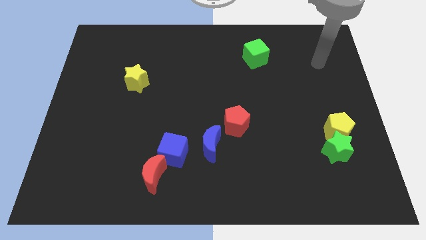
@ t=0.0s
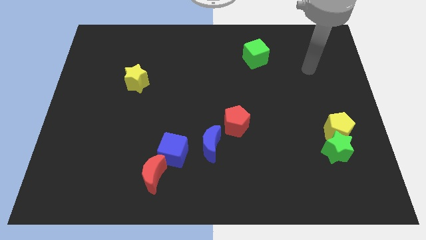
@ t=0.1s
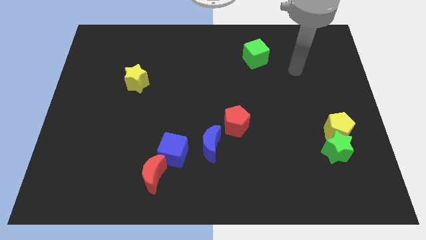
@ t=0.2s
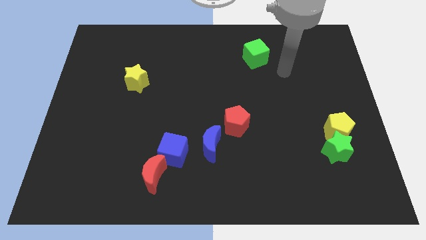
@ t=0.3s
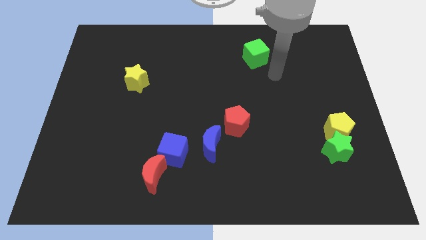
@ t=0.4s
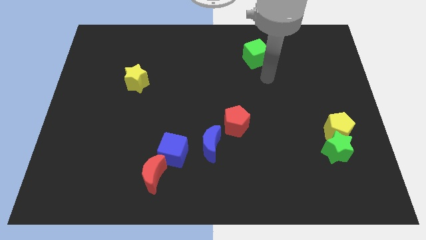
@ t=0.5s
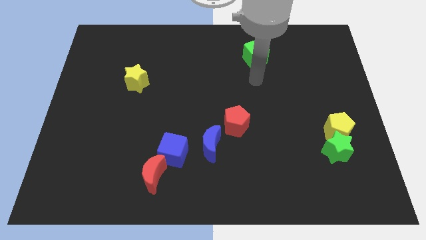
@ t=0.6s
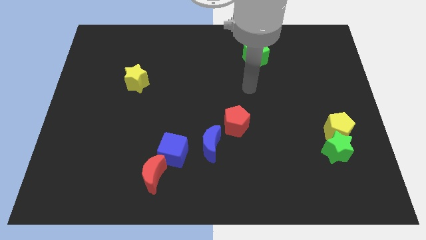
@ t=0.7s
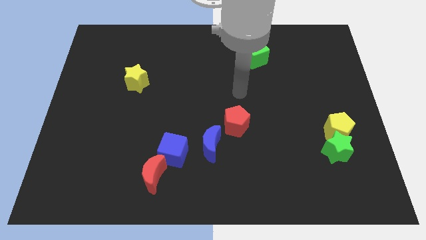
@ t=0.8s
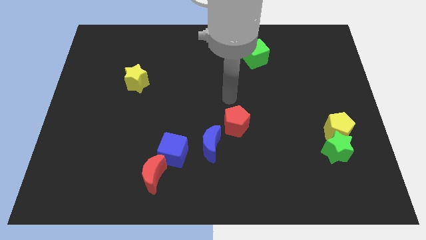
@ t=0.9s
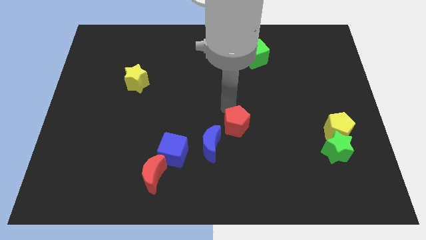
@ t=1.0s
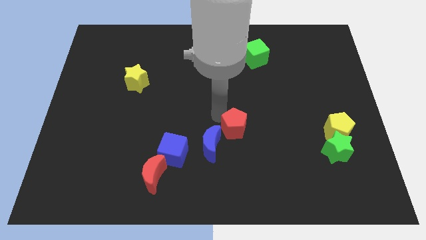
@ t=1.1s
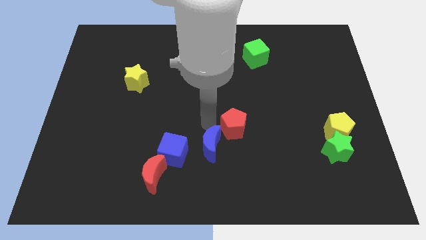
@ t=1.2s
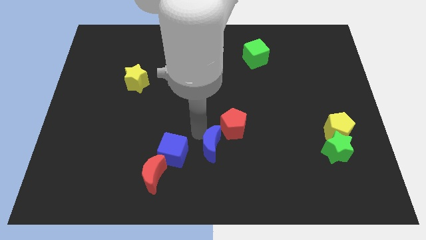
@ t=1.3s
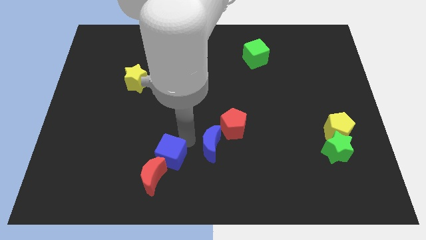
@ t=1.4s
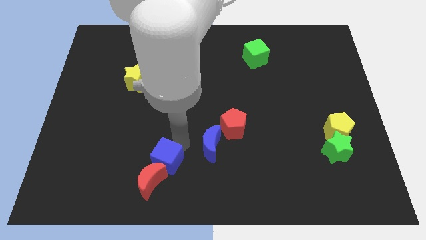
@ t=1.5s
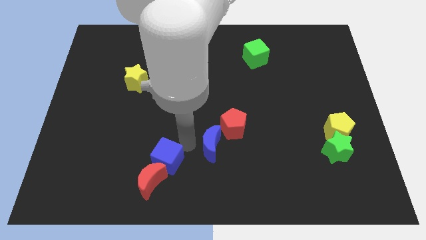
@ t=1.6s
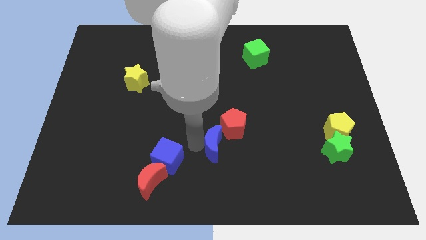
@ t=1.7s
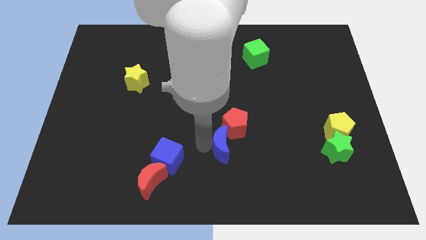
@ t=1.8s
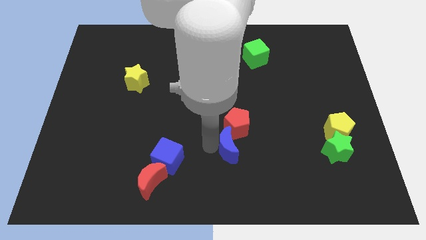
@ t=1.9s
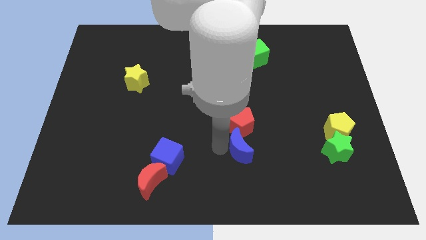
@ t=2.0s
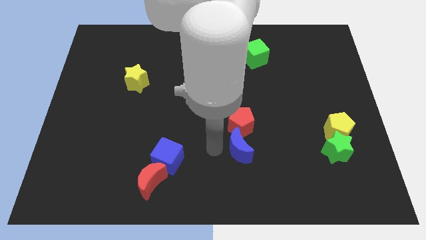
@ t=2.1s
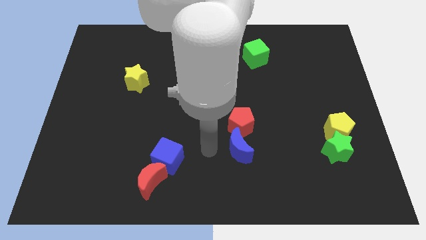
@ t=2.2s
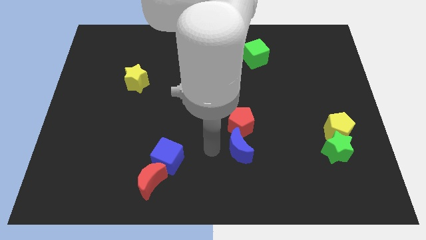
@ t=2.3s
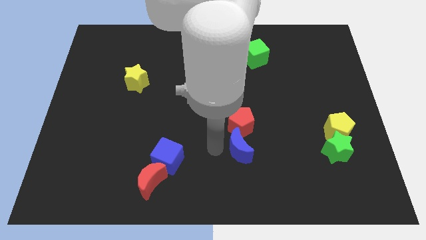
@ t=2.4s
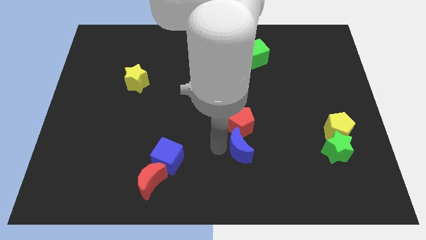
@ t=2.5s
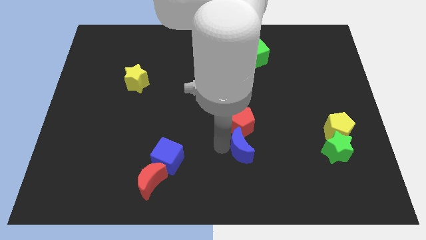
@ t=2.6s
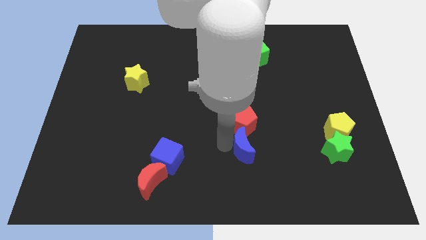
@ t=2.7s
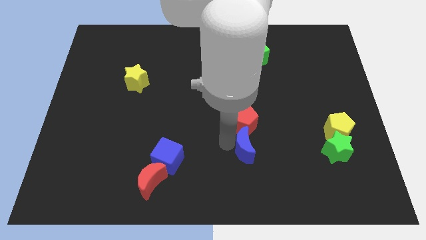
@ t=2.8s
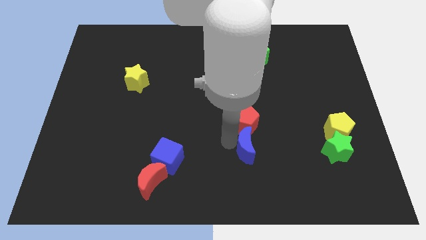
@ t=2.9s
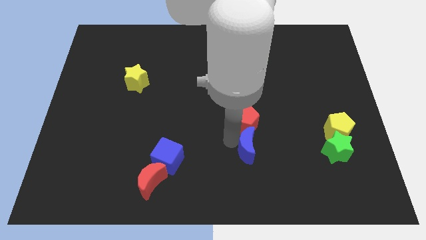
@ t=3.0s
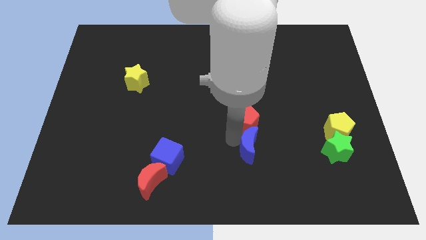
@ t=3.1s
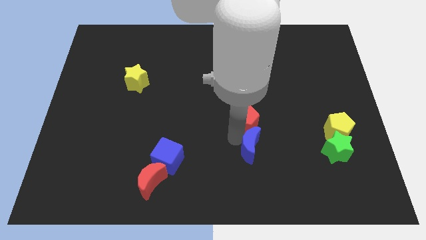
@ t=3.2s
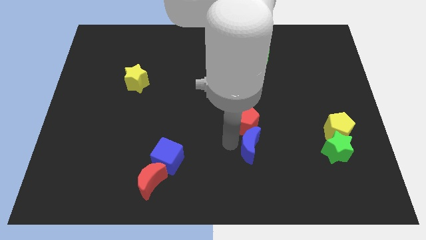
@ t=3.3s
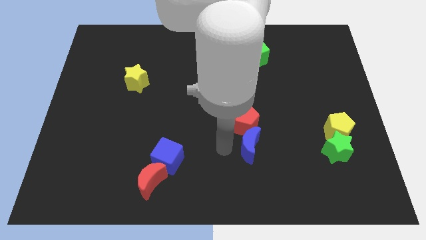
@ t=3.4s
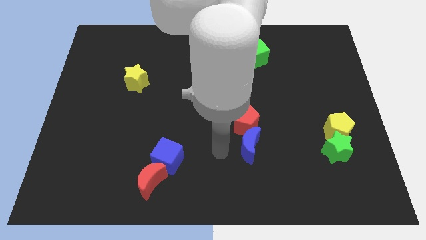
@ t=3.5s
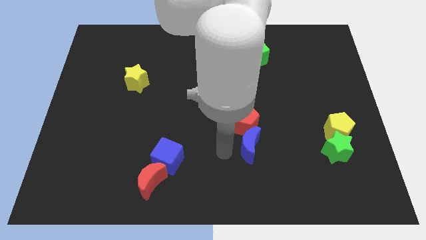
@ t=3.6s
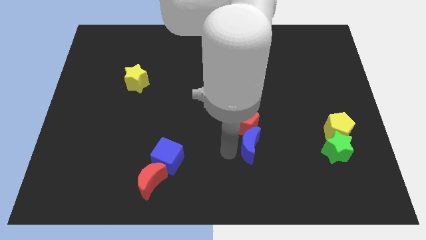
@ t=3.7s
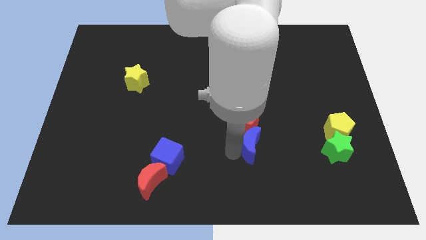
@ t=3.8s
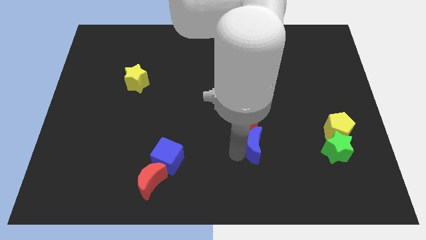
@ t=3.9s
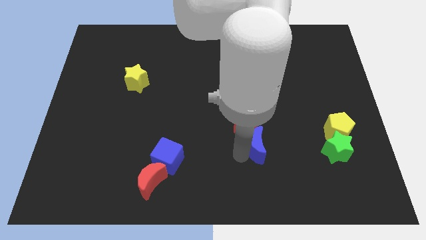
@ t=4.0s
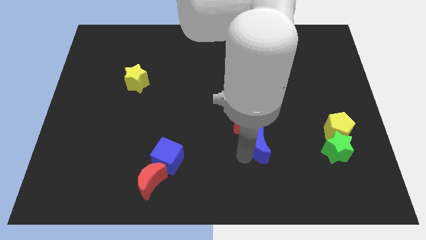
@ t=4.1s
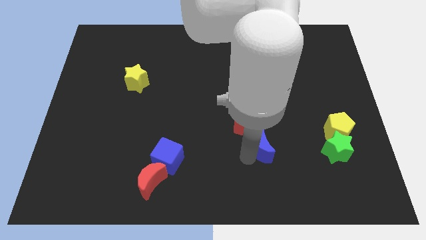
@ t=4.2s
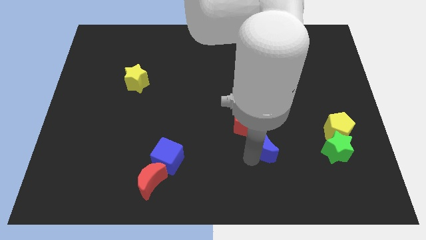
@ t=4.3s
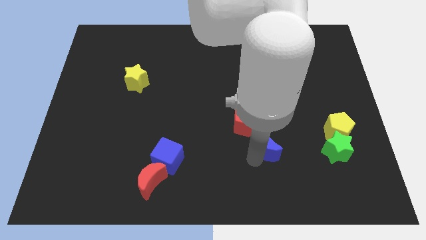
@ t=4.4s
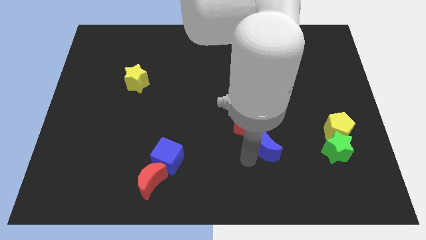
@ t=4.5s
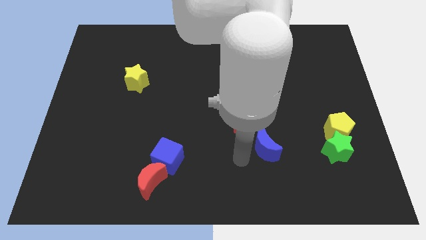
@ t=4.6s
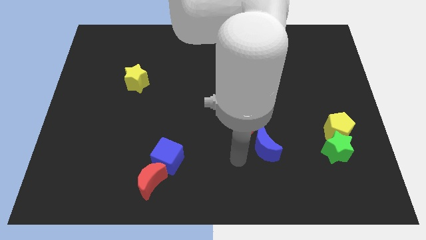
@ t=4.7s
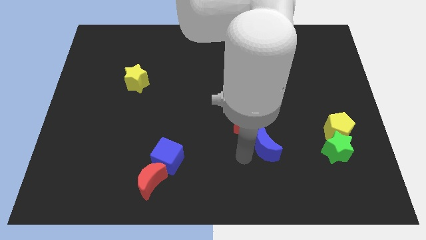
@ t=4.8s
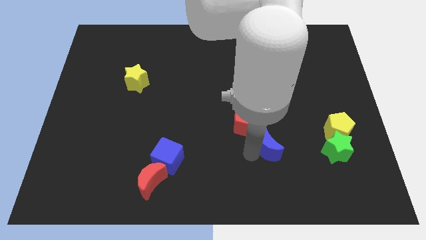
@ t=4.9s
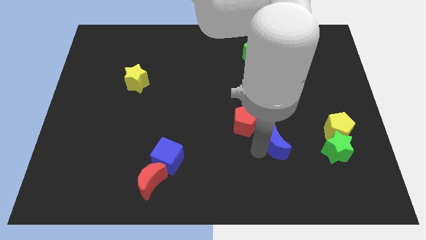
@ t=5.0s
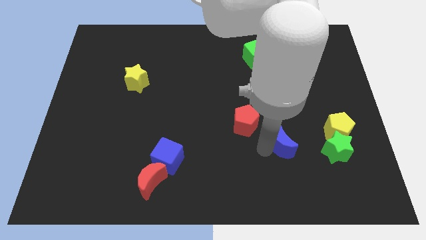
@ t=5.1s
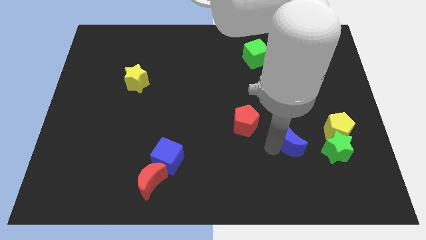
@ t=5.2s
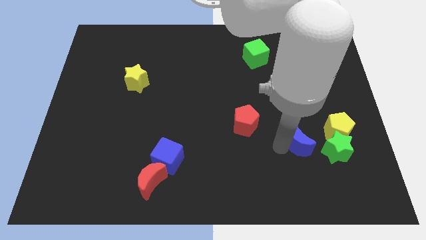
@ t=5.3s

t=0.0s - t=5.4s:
push the blue moon to the top left of the green star

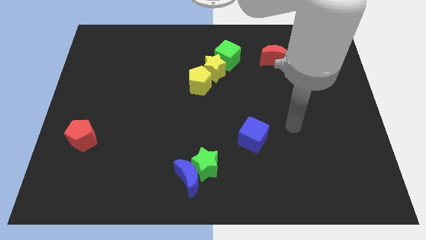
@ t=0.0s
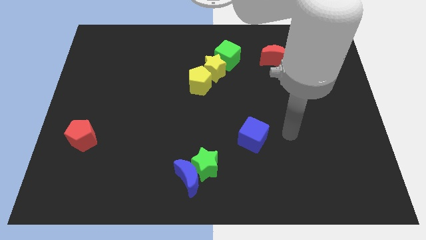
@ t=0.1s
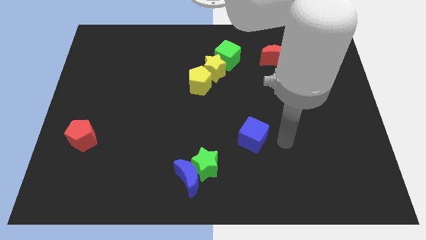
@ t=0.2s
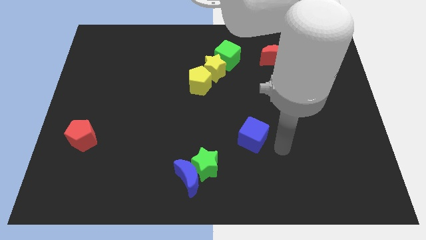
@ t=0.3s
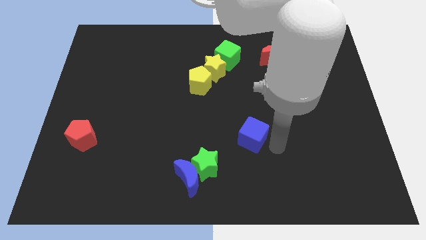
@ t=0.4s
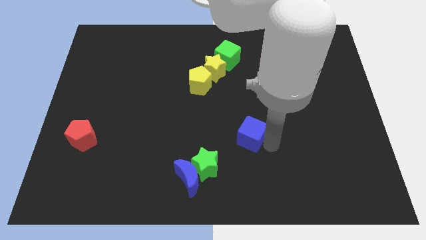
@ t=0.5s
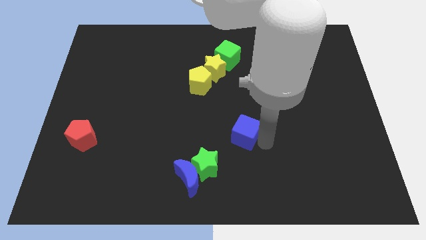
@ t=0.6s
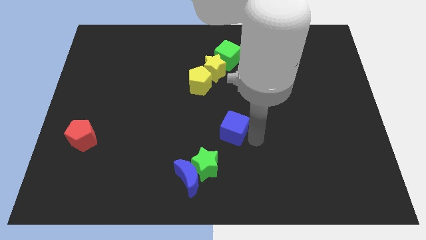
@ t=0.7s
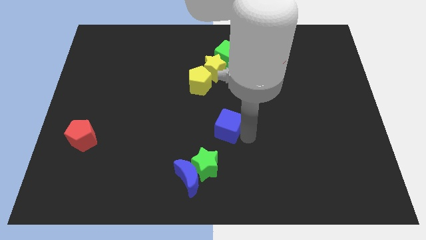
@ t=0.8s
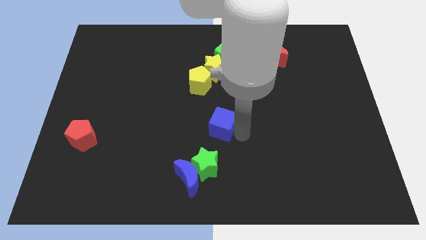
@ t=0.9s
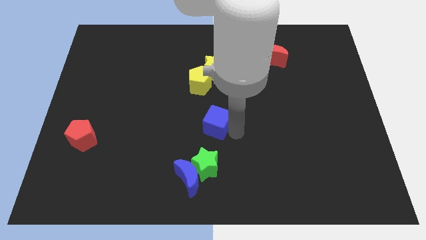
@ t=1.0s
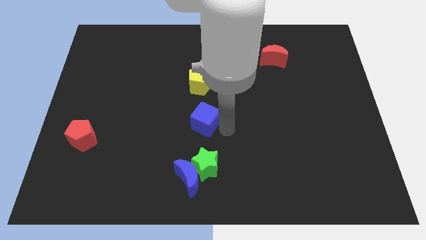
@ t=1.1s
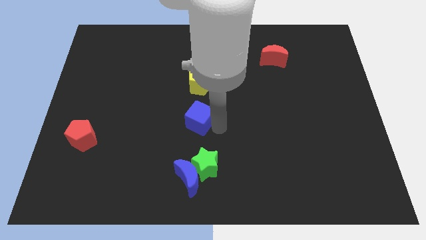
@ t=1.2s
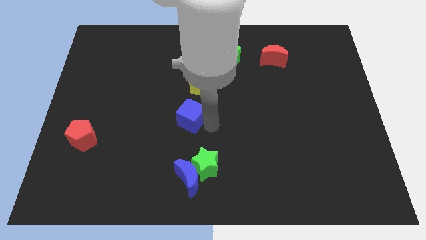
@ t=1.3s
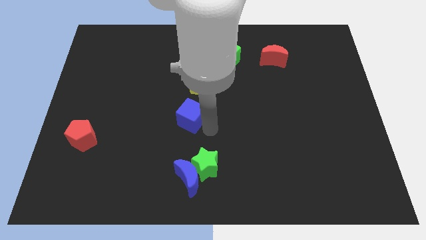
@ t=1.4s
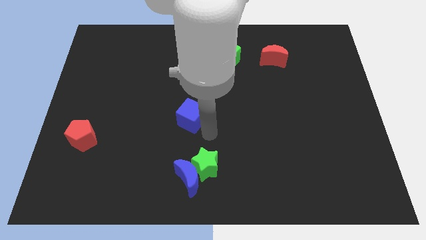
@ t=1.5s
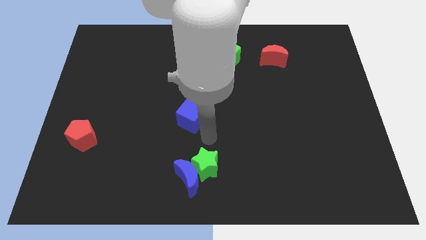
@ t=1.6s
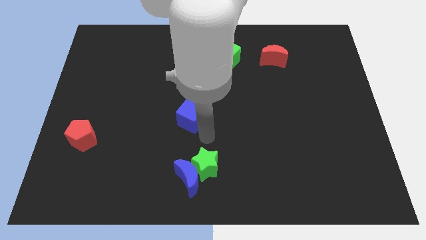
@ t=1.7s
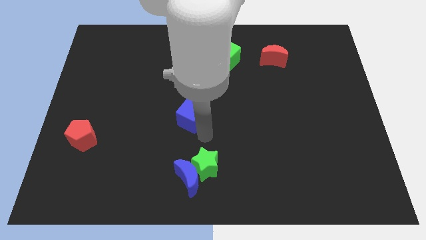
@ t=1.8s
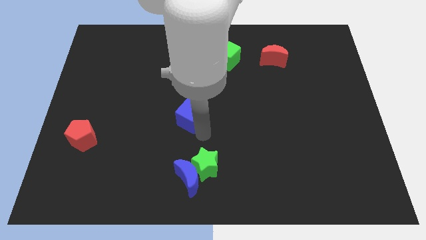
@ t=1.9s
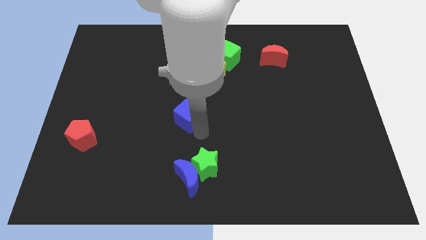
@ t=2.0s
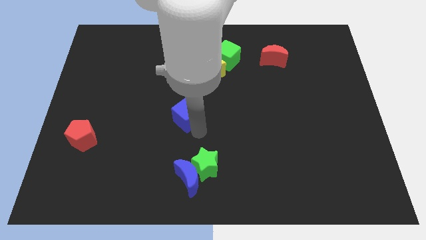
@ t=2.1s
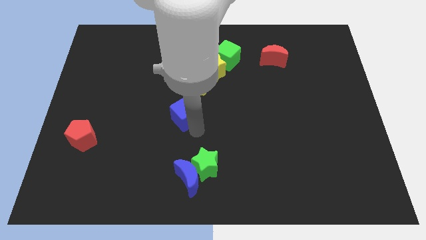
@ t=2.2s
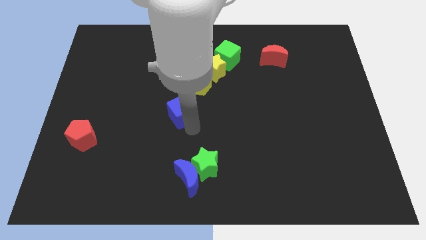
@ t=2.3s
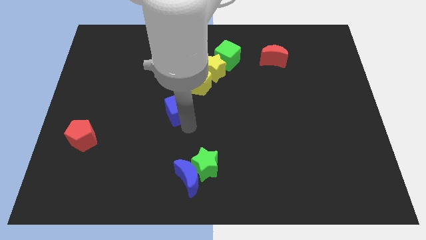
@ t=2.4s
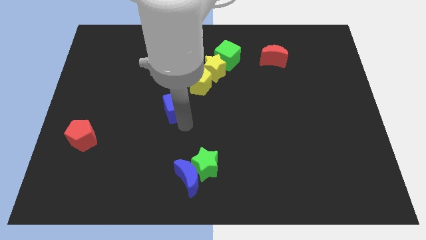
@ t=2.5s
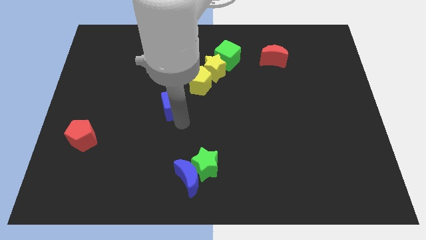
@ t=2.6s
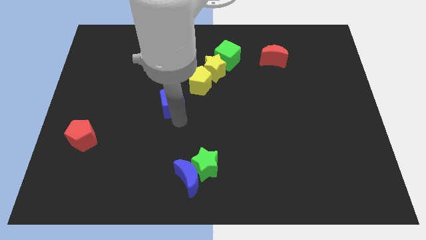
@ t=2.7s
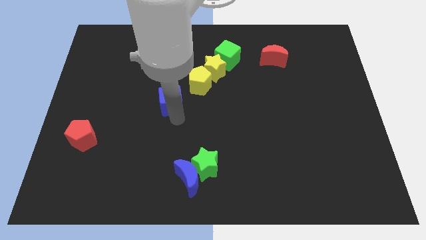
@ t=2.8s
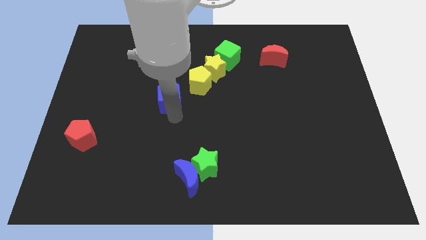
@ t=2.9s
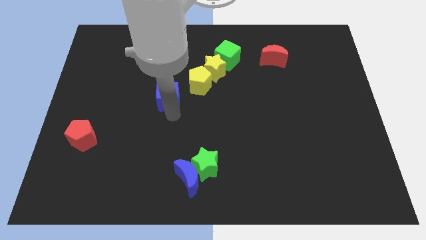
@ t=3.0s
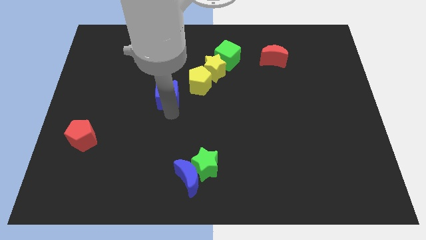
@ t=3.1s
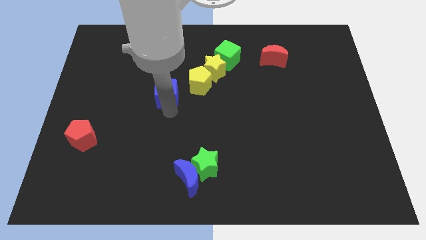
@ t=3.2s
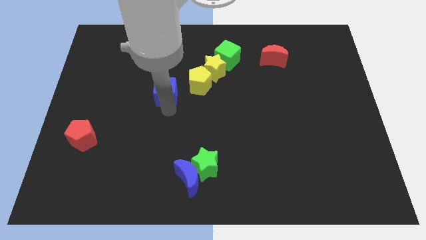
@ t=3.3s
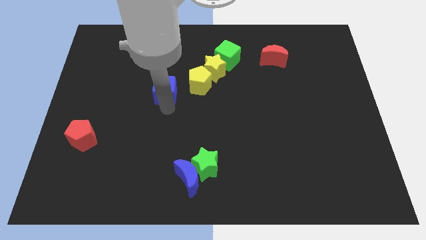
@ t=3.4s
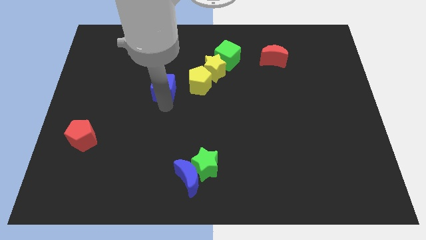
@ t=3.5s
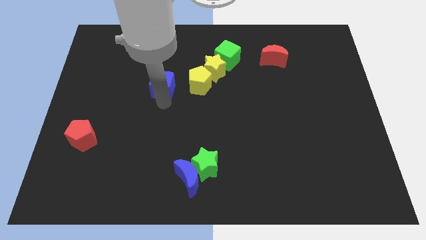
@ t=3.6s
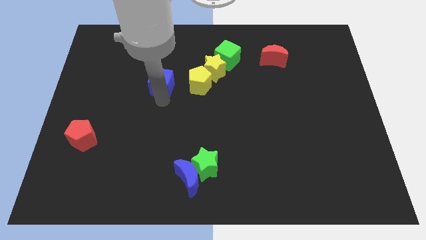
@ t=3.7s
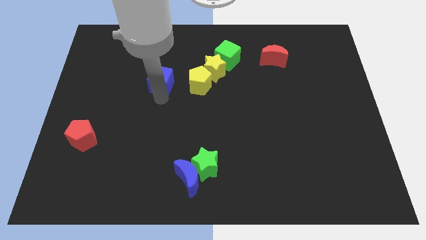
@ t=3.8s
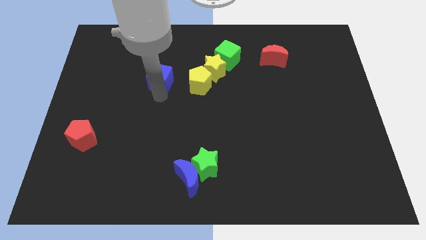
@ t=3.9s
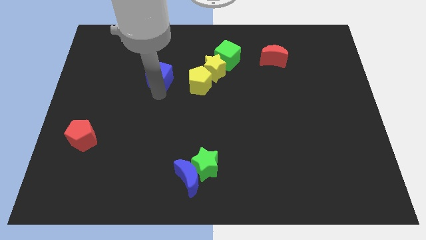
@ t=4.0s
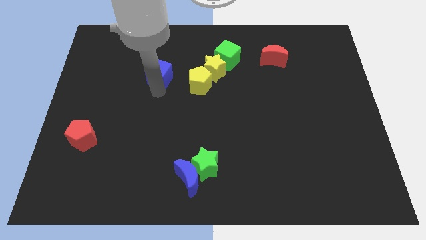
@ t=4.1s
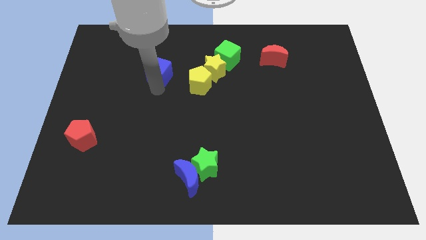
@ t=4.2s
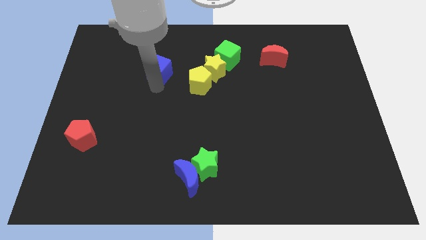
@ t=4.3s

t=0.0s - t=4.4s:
move the blue cube to the top left side of the yellow pentagon
